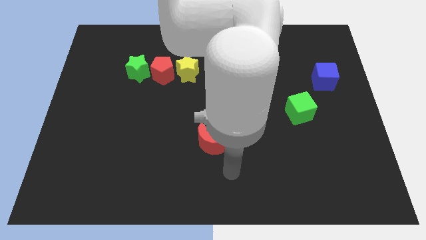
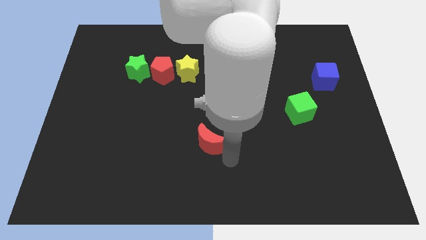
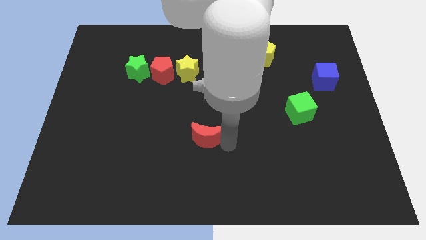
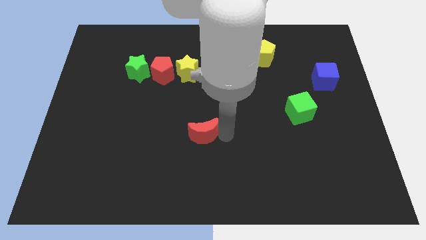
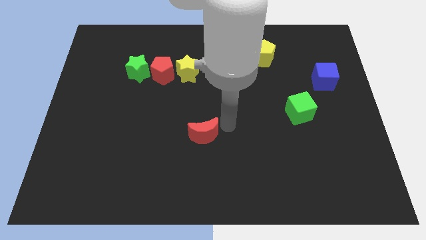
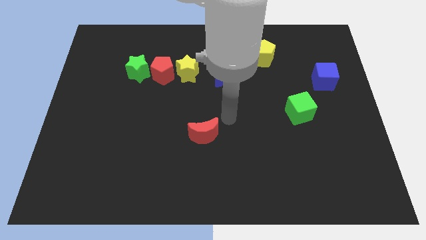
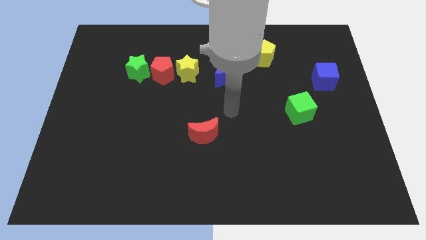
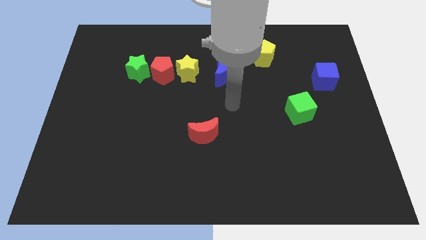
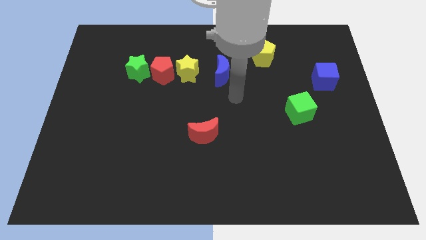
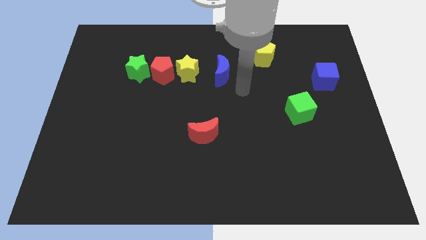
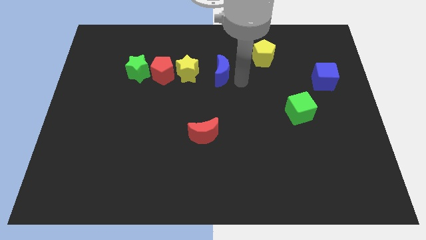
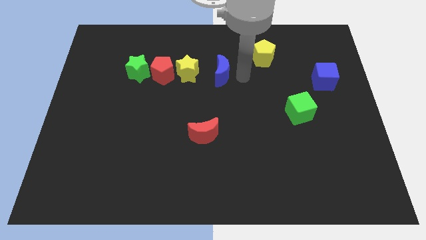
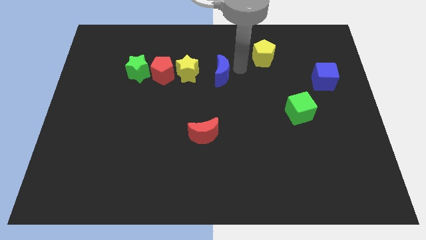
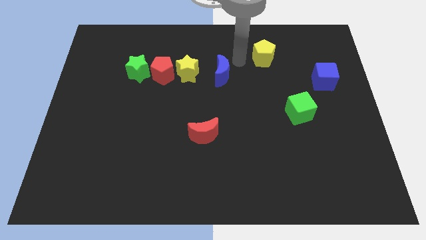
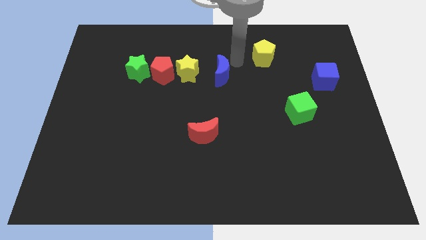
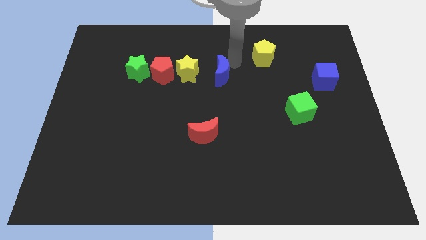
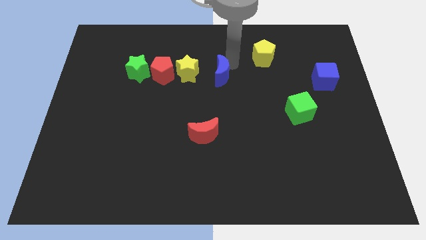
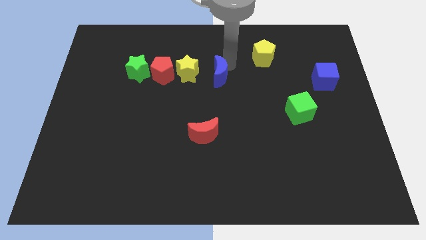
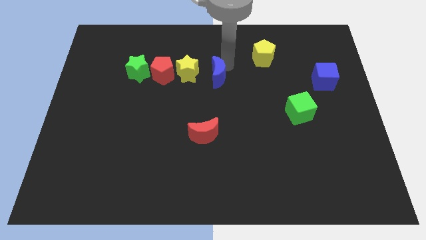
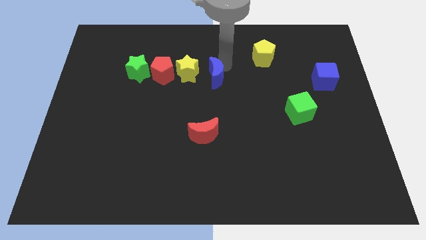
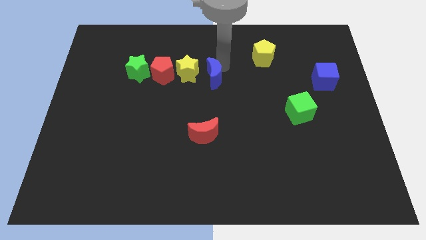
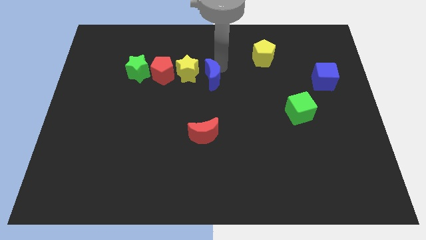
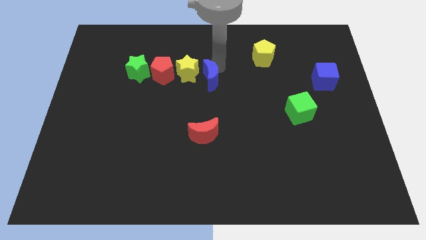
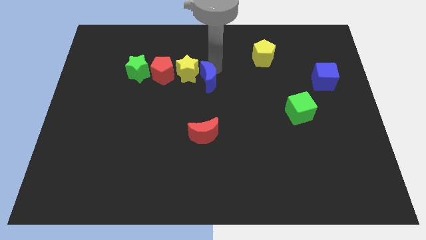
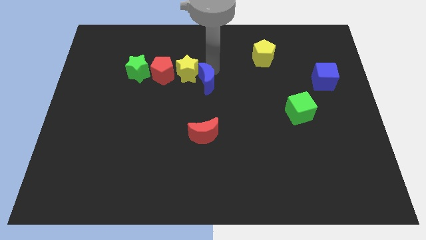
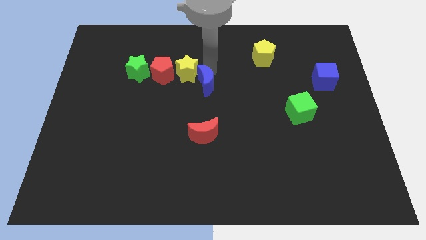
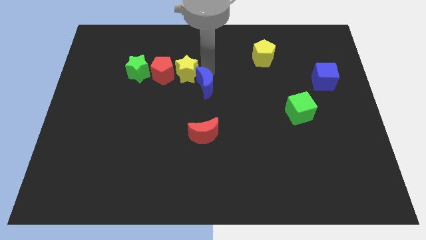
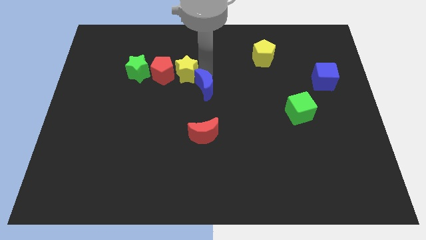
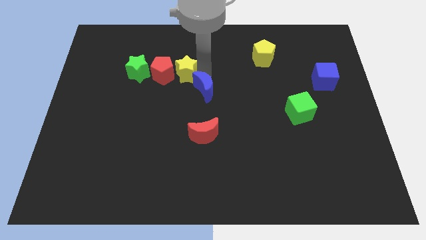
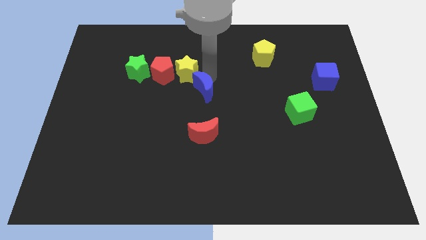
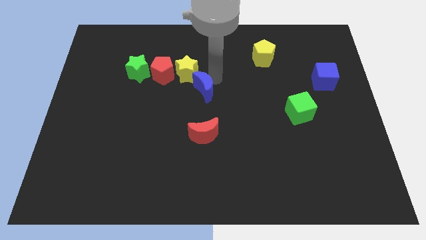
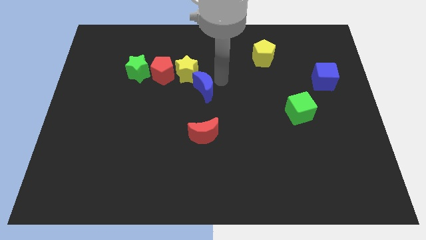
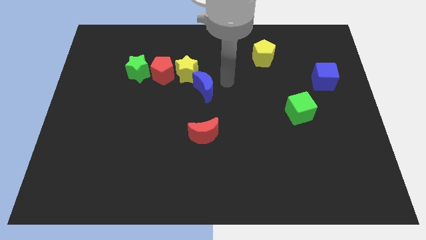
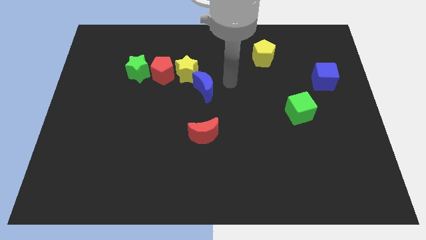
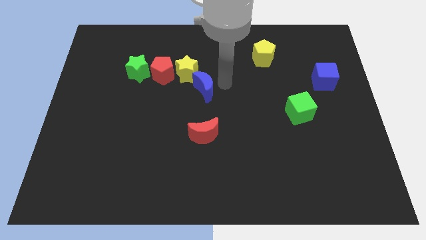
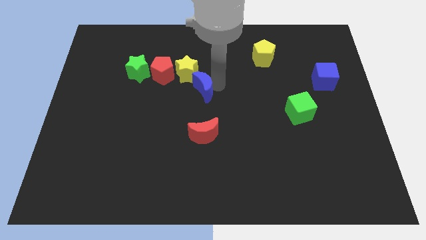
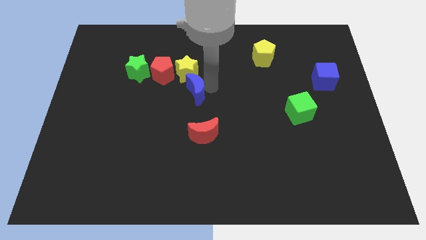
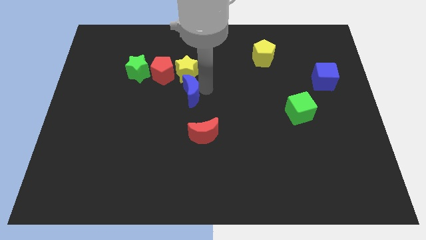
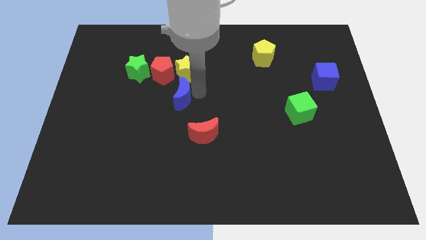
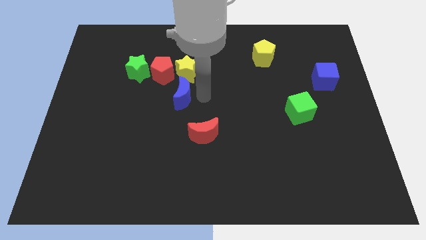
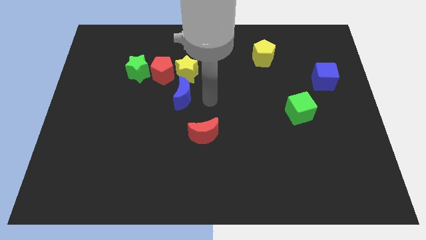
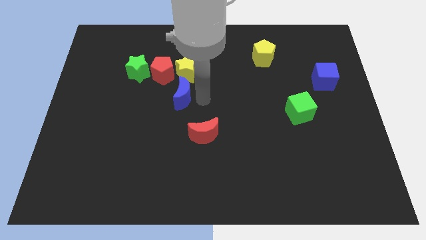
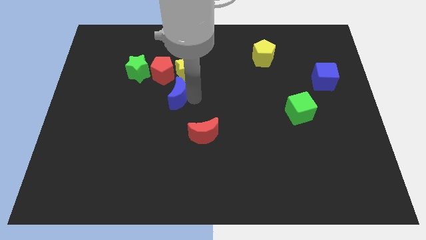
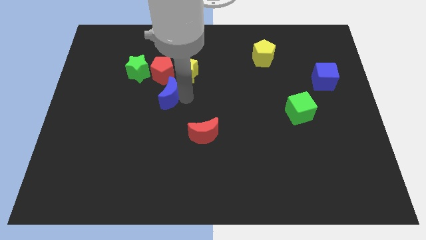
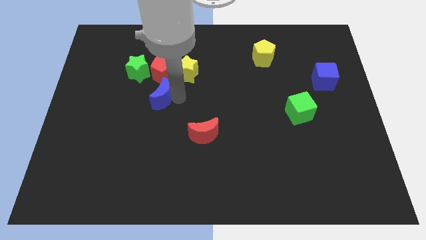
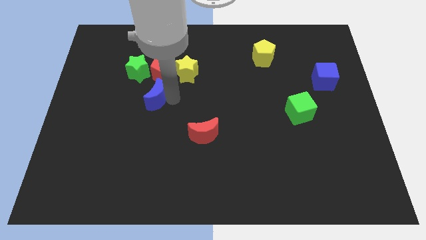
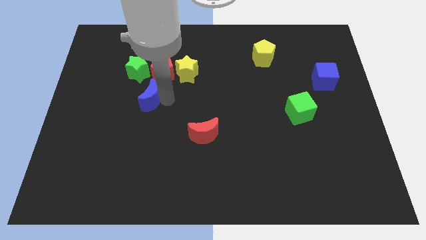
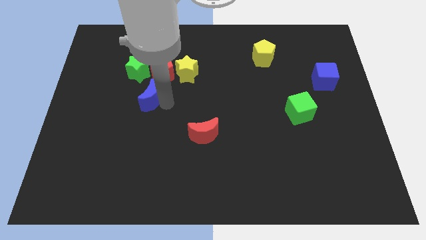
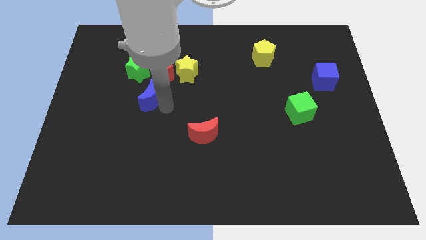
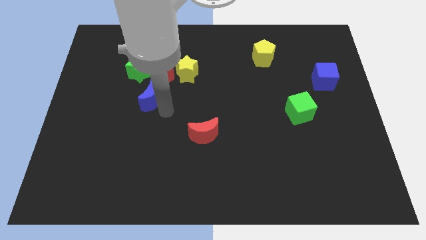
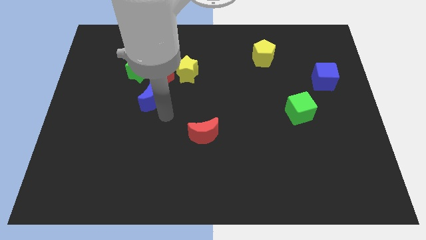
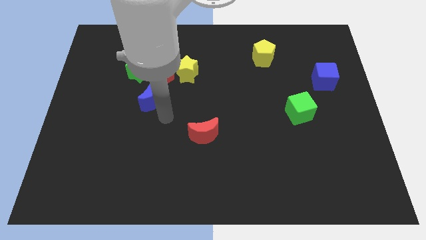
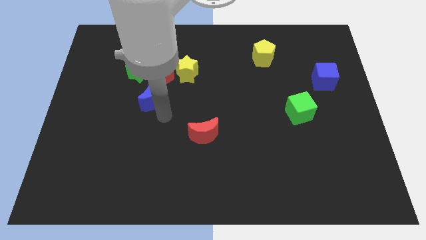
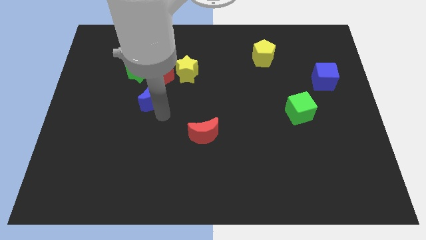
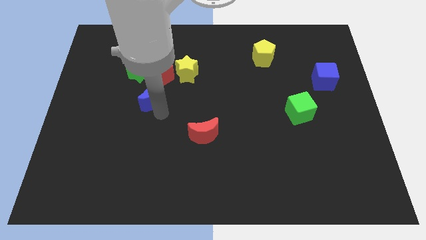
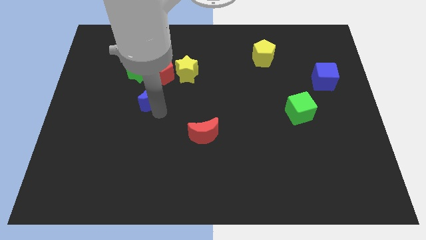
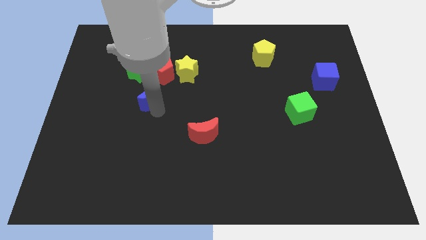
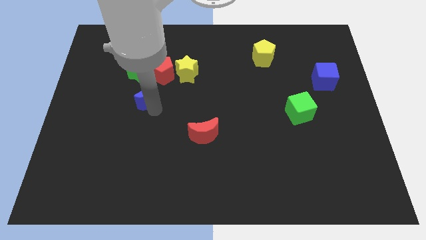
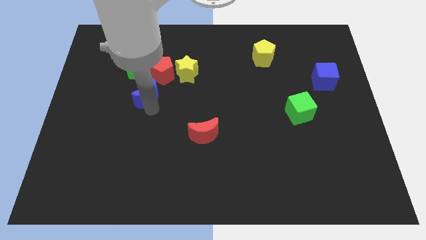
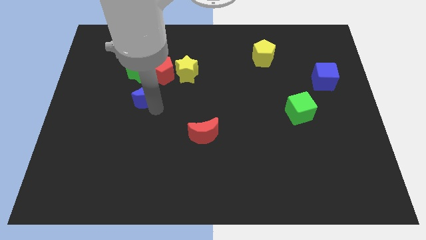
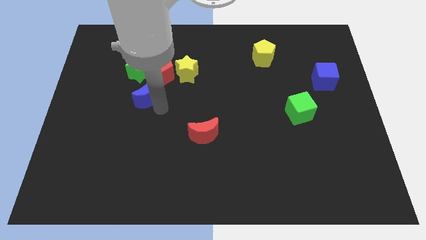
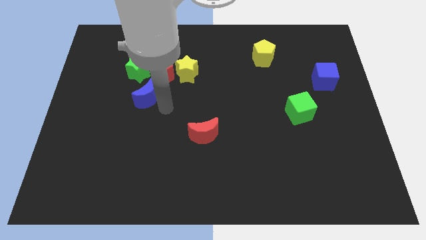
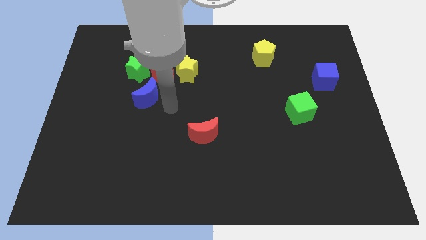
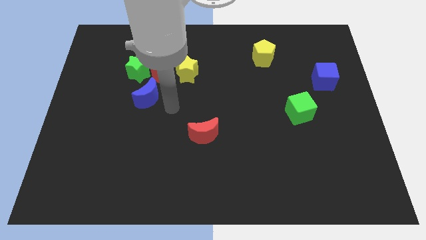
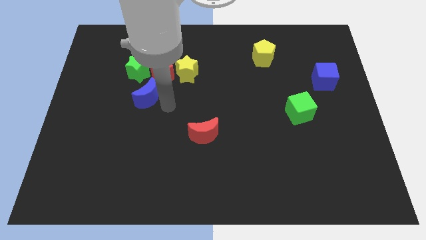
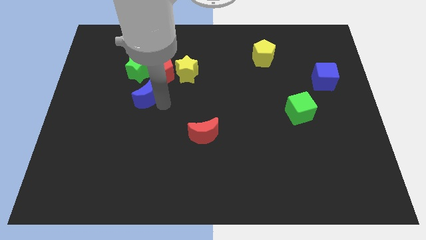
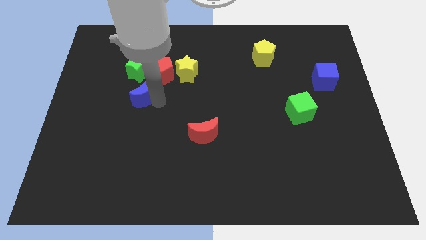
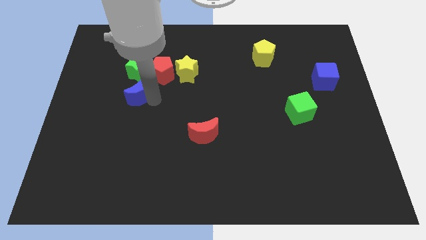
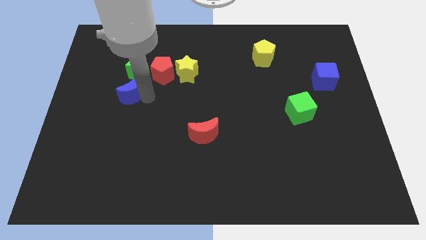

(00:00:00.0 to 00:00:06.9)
move the blue moon to the bottom left side of the green star

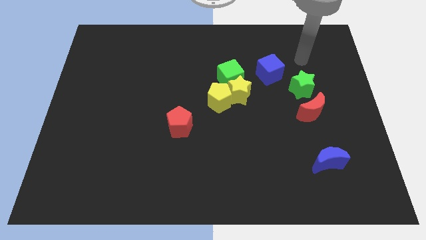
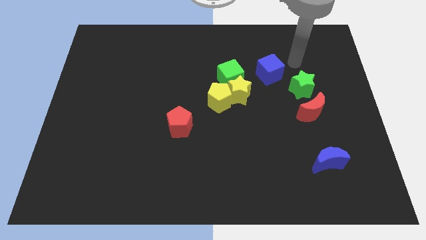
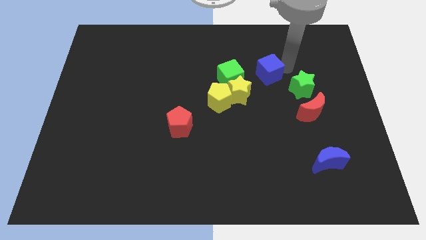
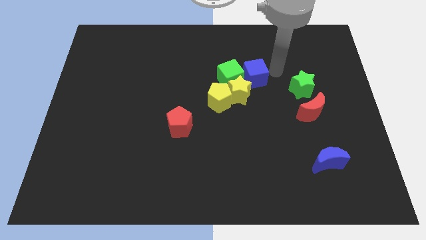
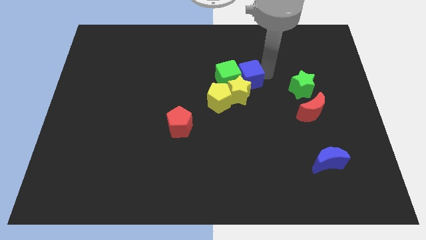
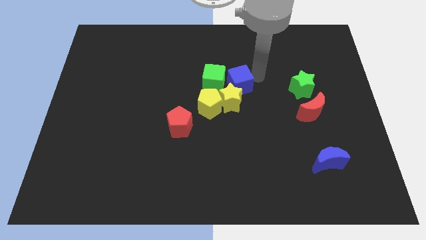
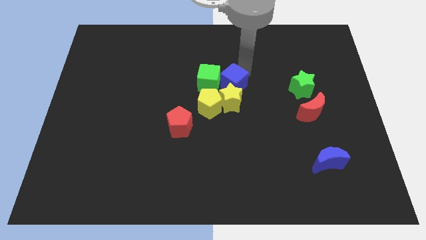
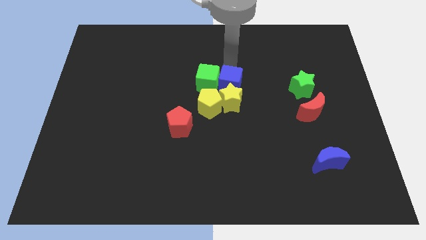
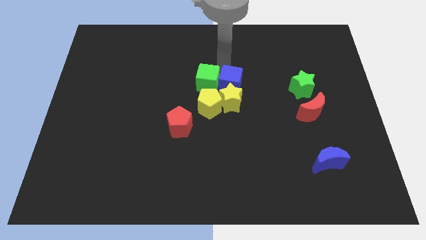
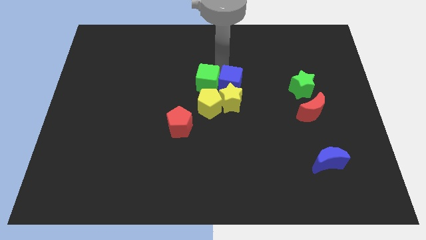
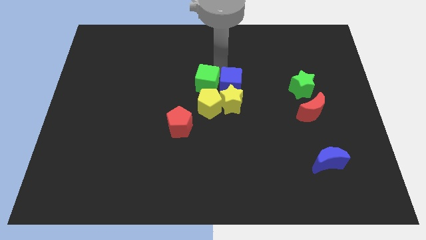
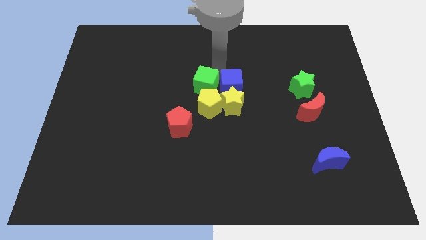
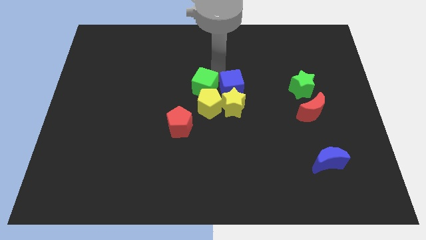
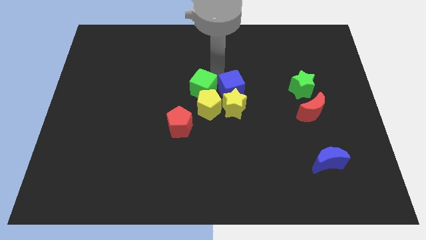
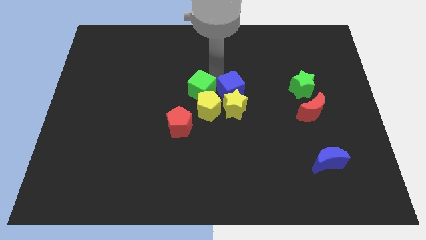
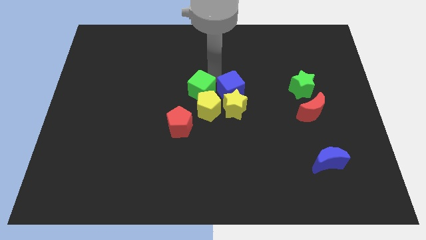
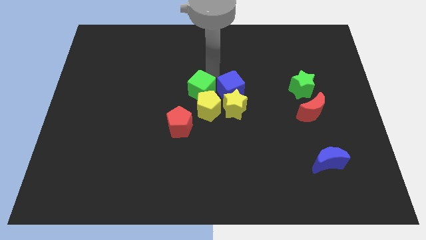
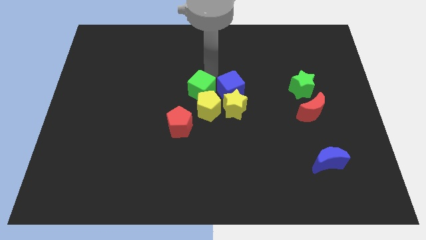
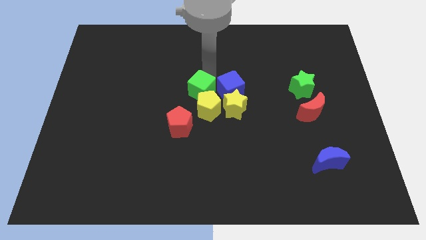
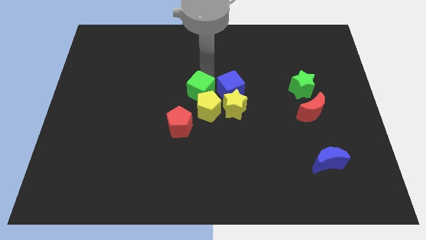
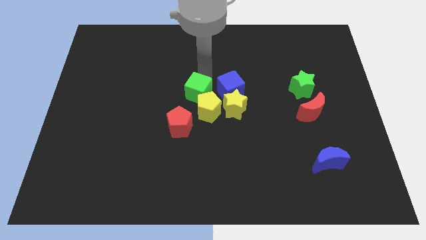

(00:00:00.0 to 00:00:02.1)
push the green cube left of the yellow star
